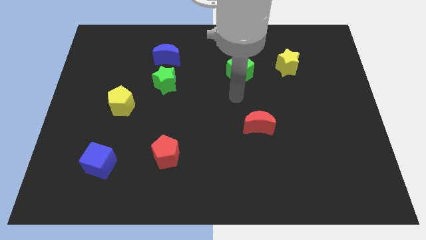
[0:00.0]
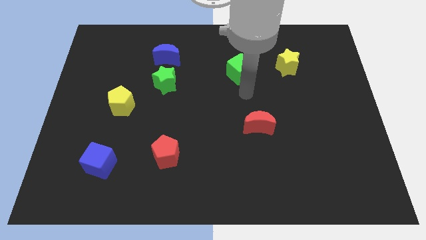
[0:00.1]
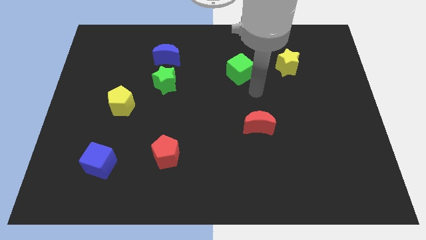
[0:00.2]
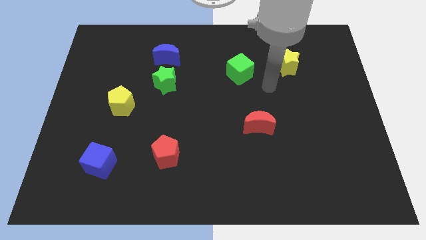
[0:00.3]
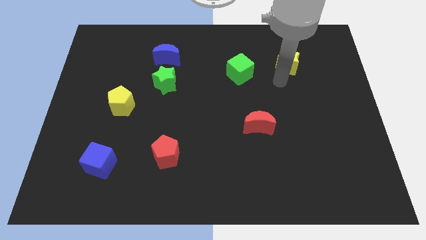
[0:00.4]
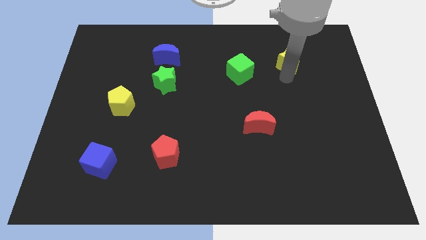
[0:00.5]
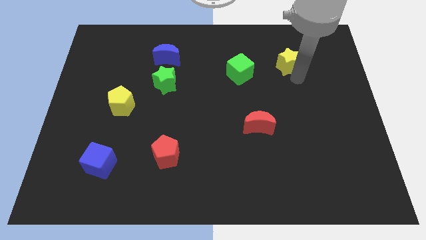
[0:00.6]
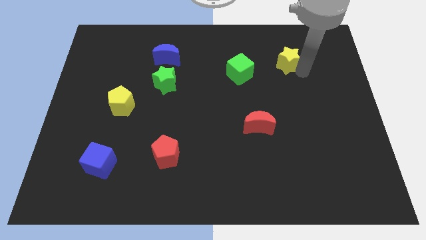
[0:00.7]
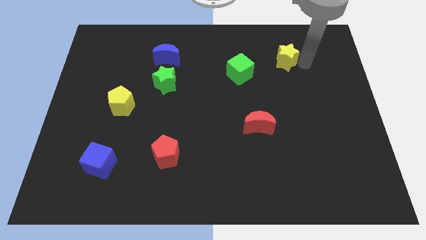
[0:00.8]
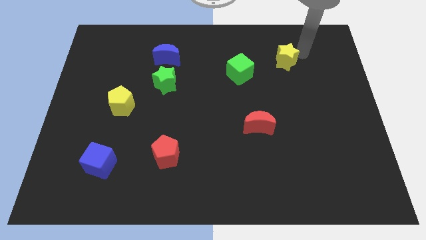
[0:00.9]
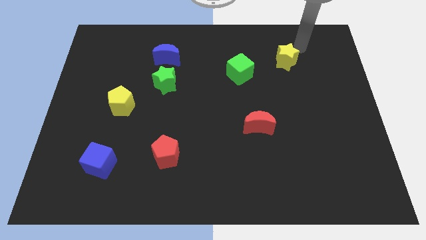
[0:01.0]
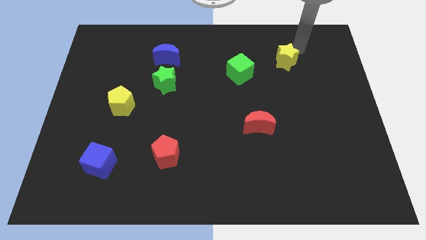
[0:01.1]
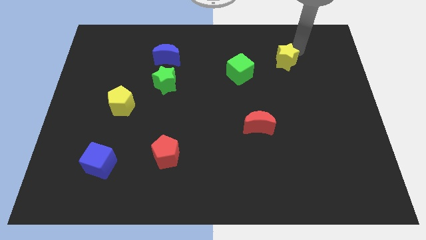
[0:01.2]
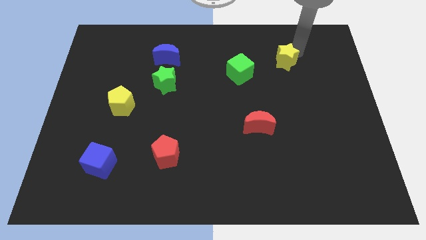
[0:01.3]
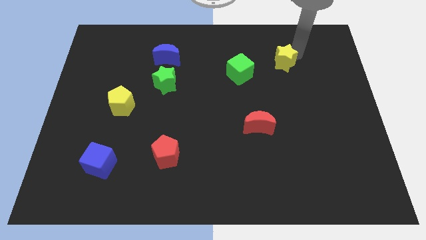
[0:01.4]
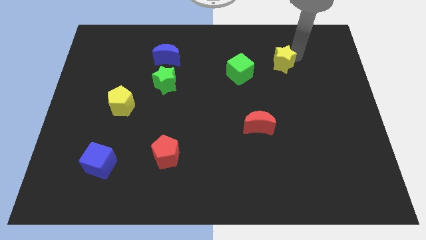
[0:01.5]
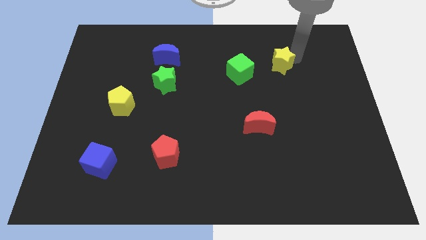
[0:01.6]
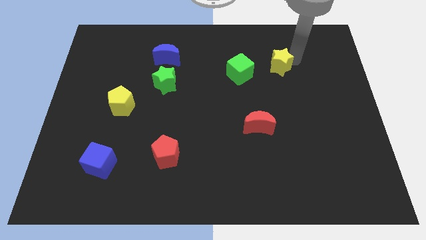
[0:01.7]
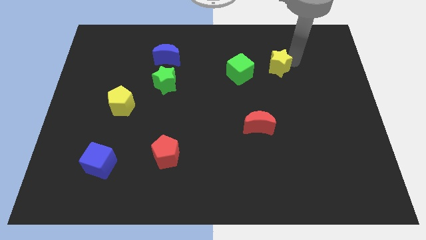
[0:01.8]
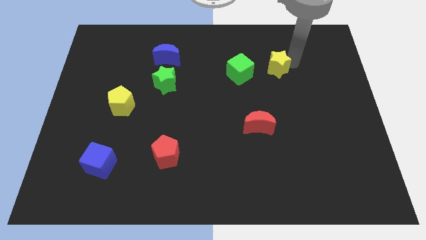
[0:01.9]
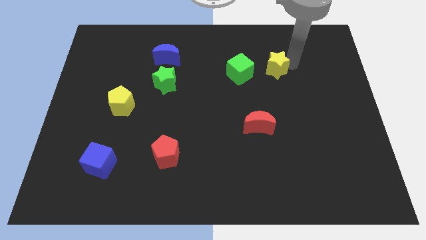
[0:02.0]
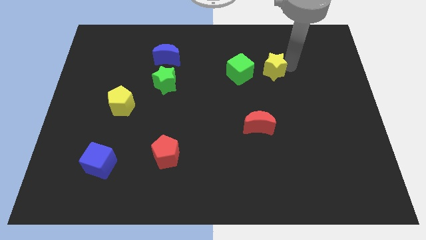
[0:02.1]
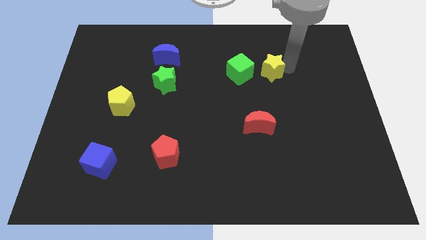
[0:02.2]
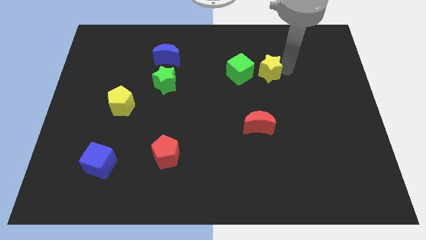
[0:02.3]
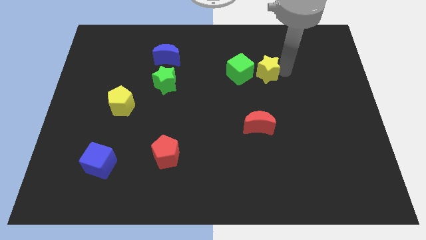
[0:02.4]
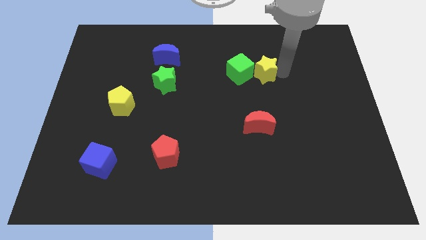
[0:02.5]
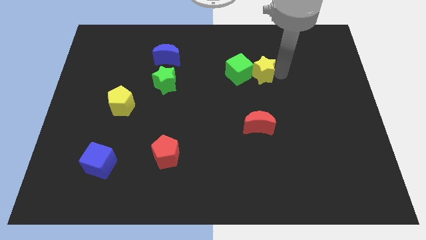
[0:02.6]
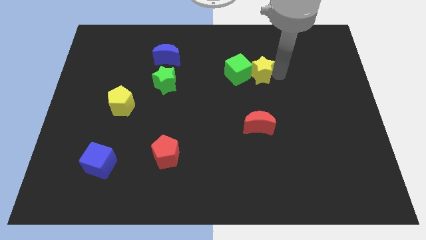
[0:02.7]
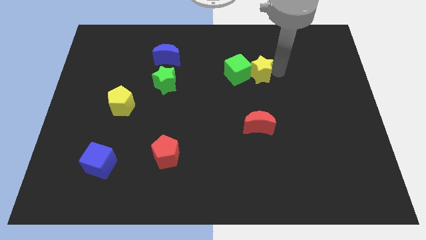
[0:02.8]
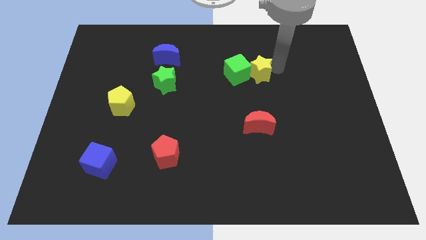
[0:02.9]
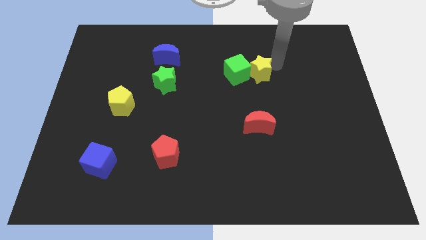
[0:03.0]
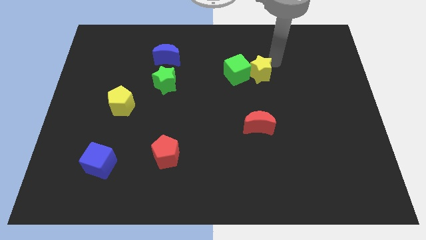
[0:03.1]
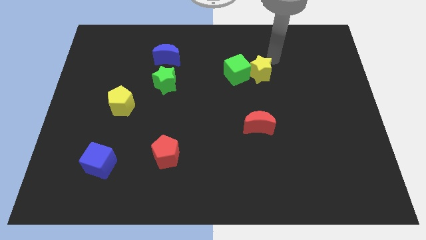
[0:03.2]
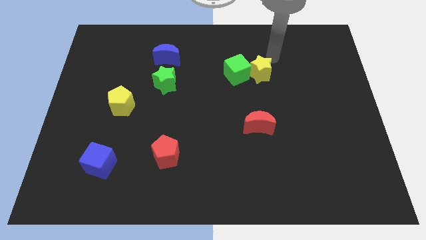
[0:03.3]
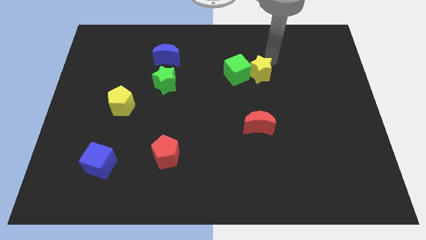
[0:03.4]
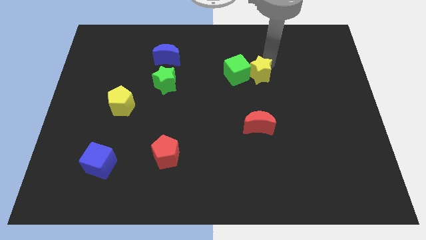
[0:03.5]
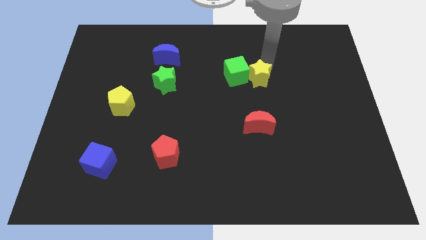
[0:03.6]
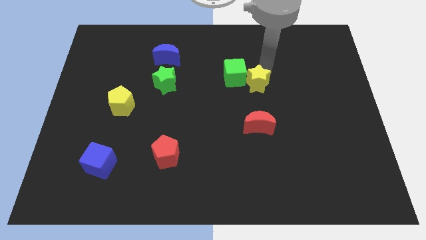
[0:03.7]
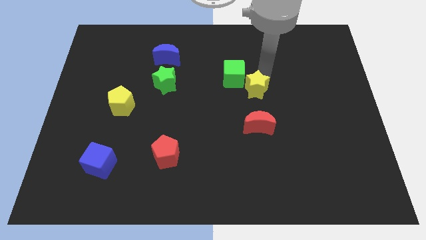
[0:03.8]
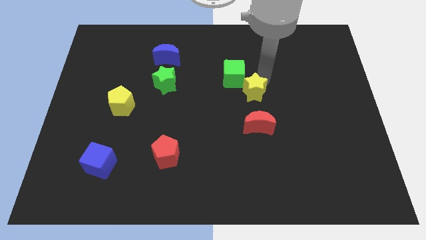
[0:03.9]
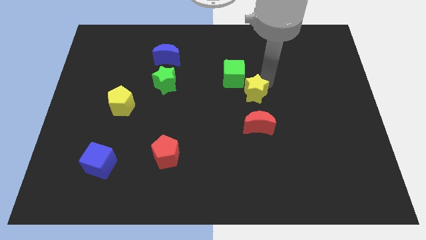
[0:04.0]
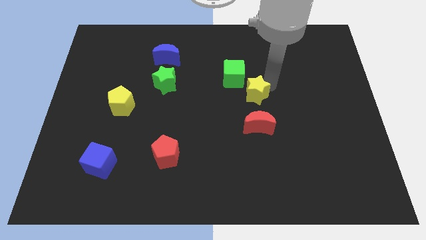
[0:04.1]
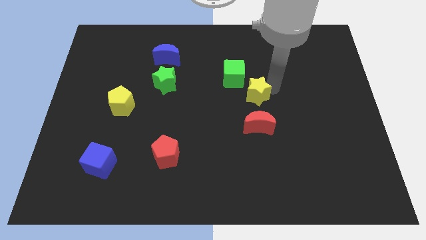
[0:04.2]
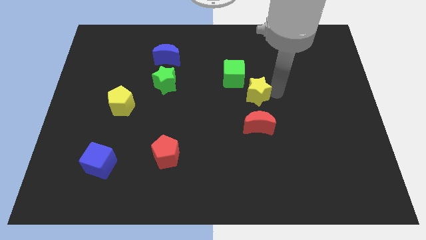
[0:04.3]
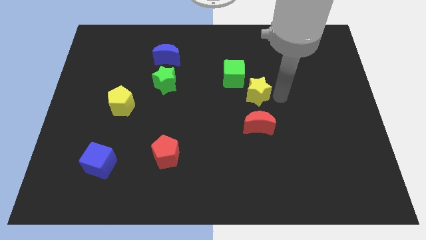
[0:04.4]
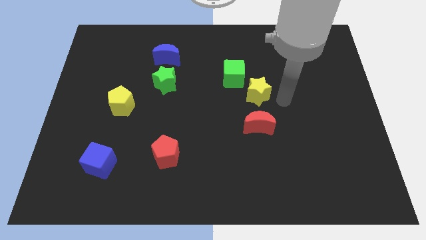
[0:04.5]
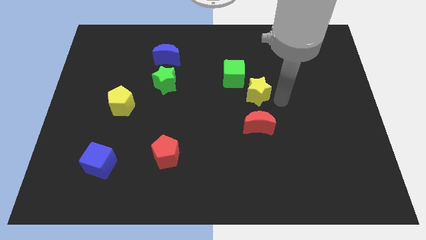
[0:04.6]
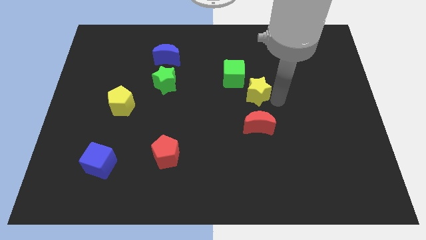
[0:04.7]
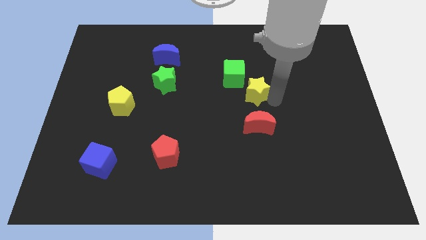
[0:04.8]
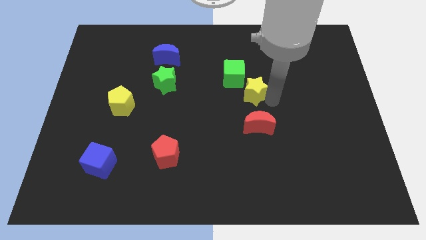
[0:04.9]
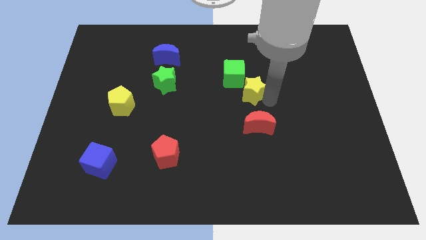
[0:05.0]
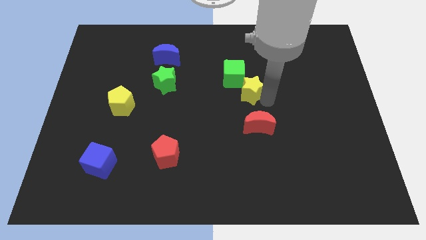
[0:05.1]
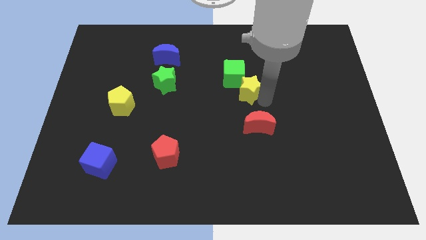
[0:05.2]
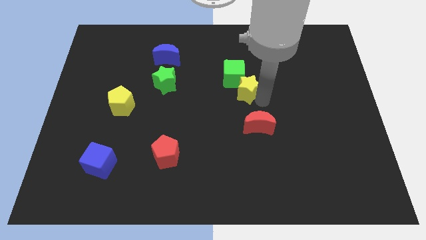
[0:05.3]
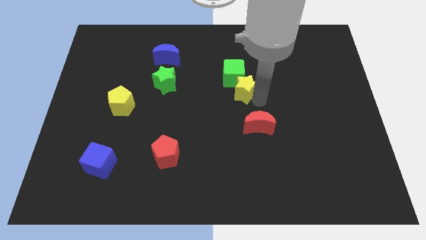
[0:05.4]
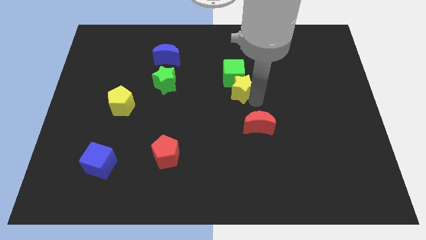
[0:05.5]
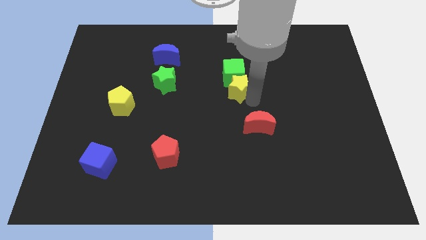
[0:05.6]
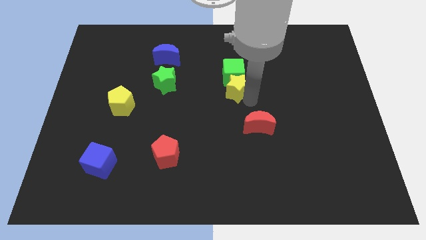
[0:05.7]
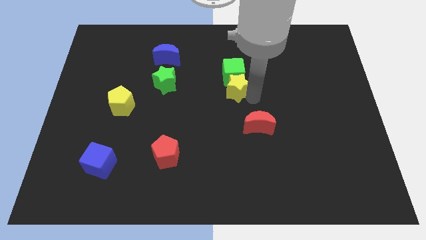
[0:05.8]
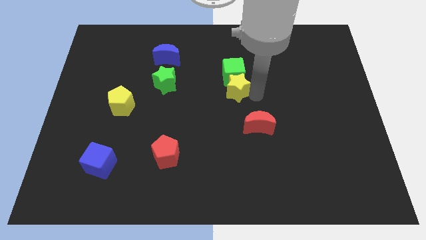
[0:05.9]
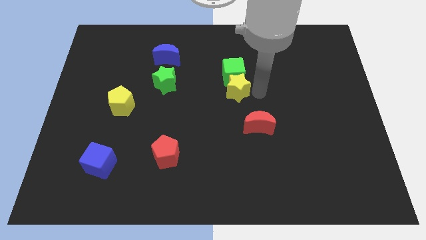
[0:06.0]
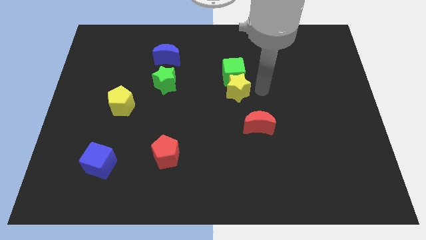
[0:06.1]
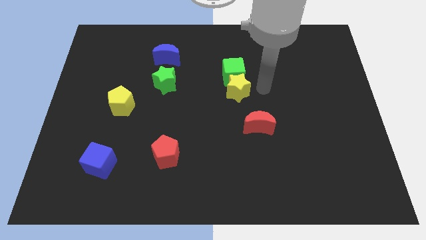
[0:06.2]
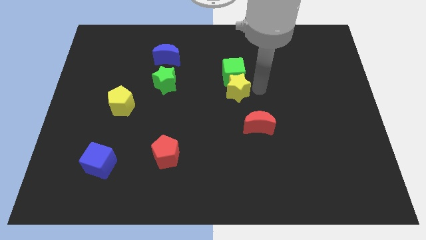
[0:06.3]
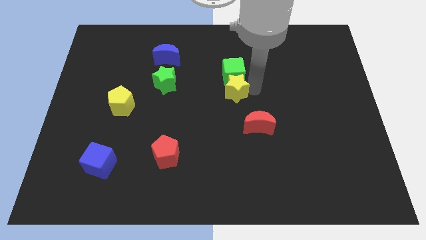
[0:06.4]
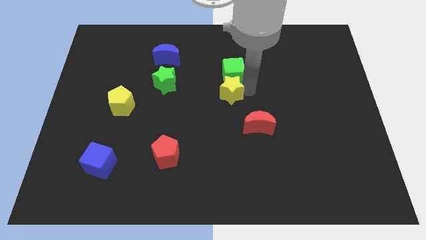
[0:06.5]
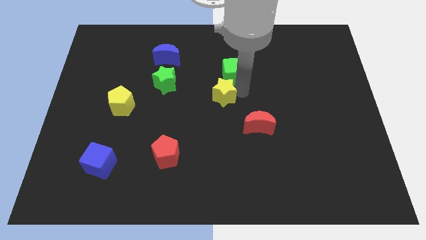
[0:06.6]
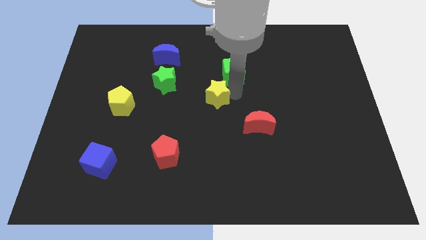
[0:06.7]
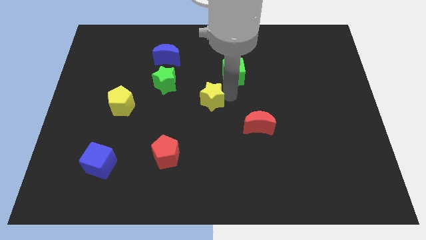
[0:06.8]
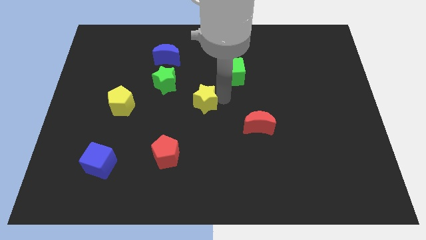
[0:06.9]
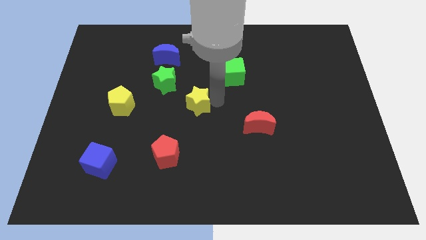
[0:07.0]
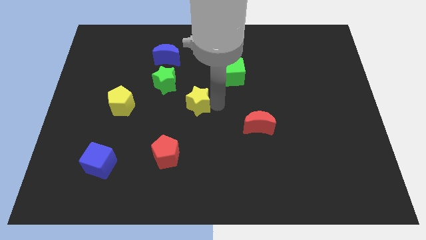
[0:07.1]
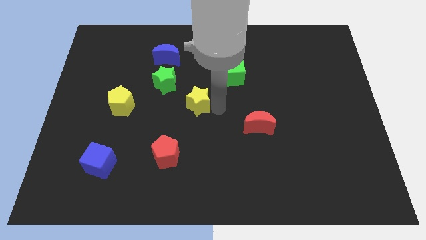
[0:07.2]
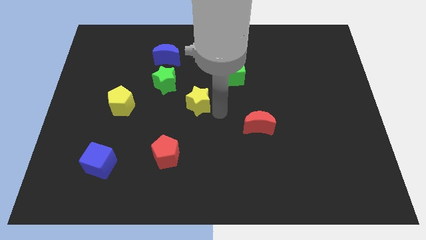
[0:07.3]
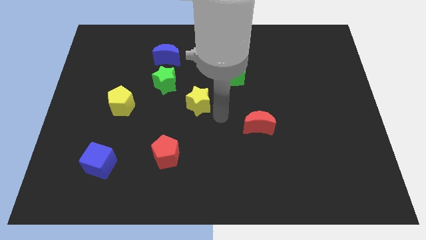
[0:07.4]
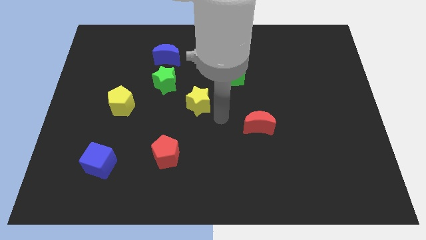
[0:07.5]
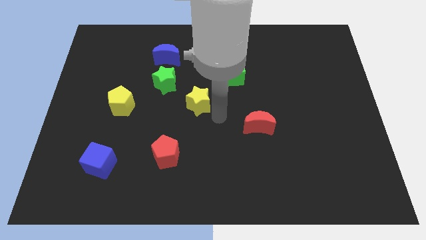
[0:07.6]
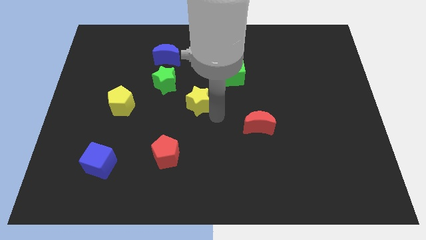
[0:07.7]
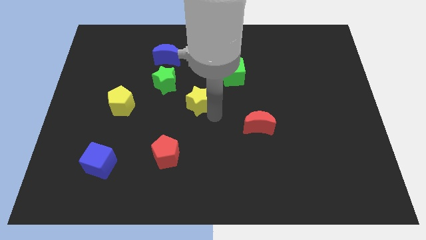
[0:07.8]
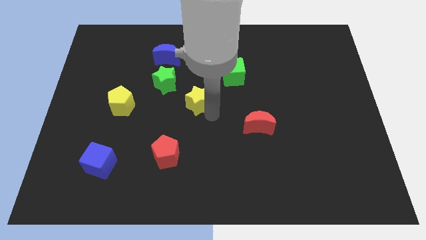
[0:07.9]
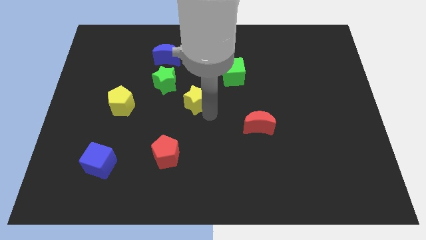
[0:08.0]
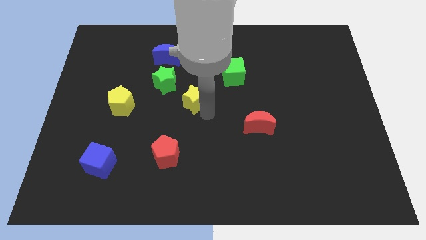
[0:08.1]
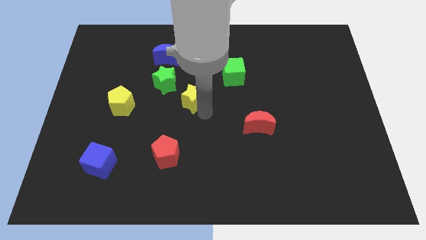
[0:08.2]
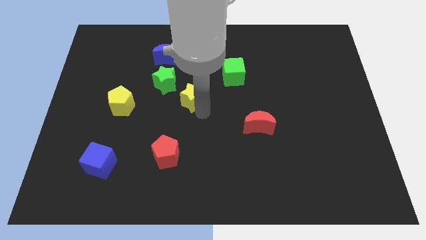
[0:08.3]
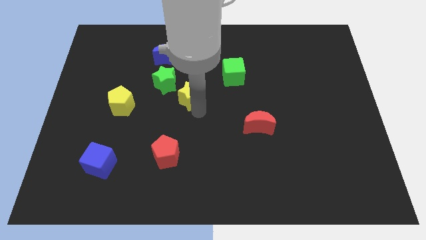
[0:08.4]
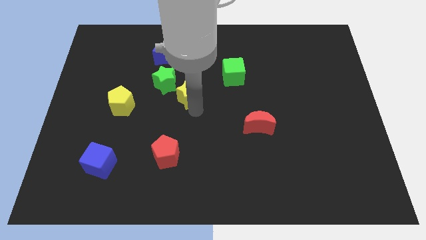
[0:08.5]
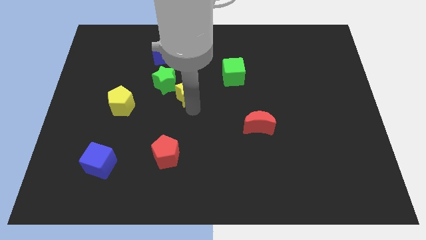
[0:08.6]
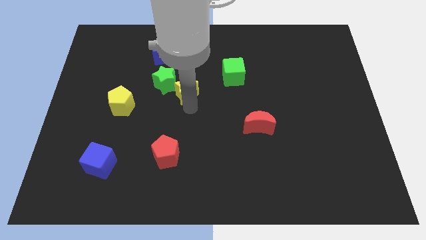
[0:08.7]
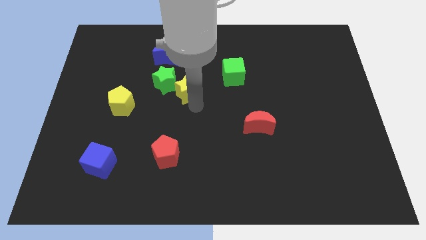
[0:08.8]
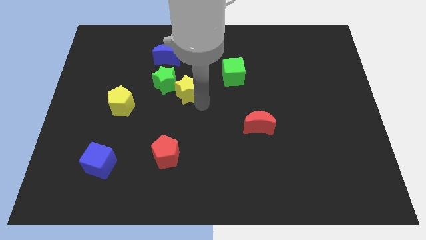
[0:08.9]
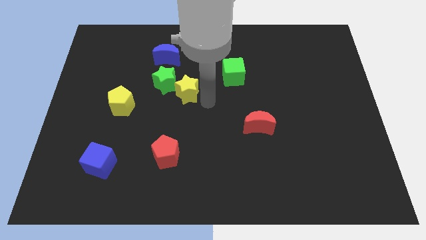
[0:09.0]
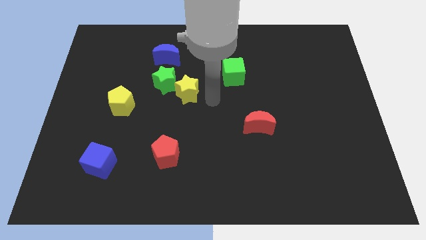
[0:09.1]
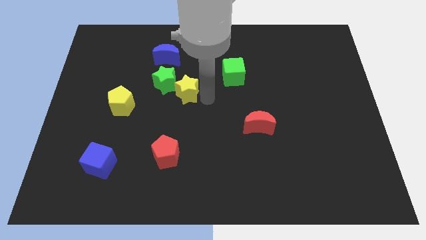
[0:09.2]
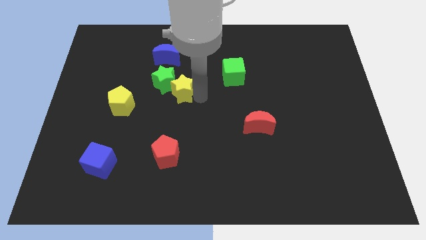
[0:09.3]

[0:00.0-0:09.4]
slide the yellow star to the bottom side of the blue moon
